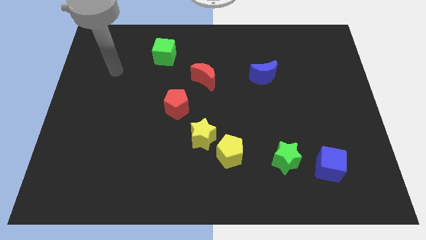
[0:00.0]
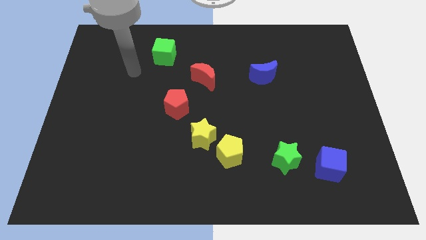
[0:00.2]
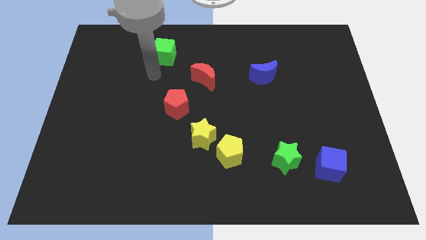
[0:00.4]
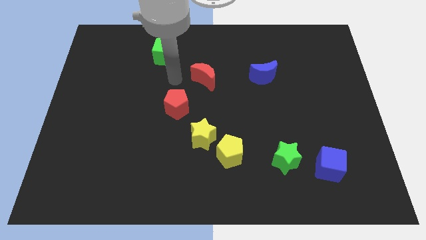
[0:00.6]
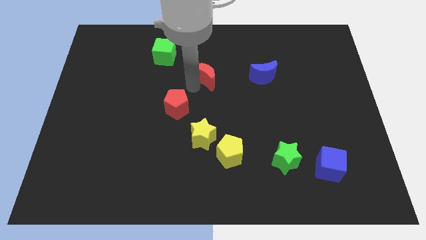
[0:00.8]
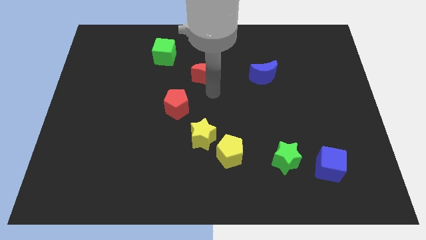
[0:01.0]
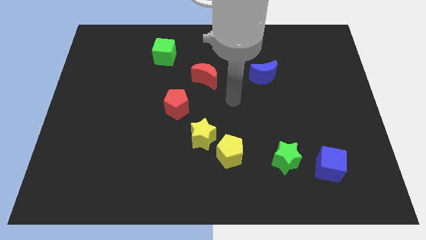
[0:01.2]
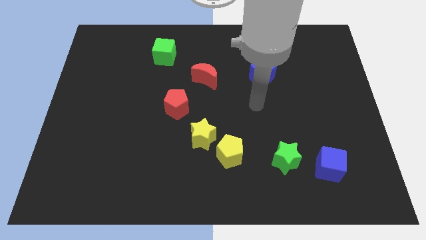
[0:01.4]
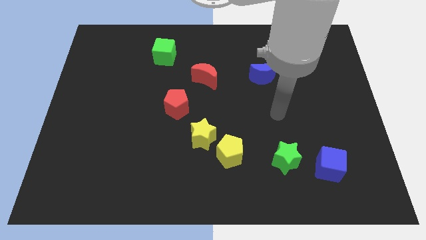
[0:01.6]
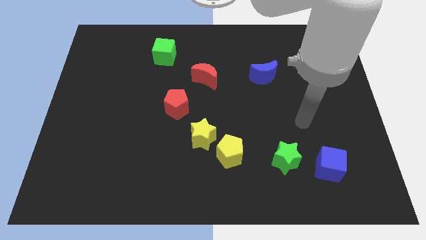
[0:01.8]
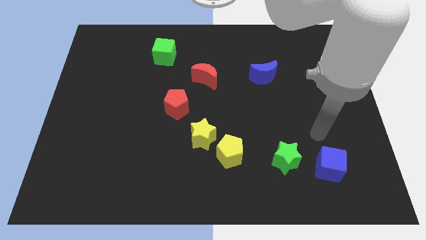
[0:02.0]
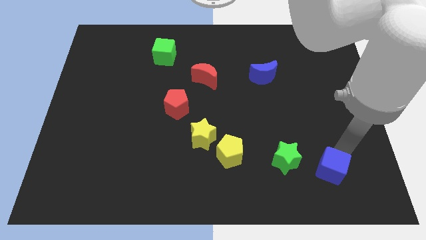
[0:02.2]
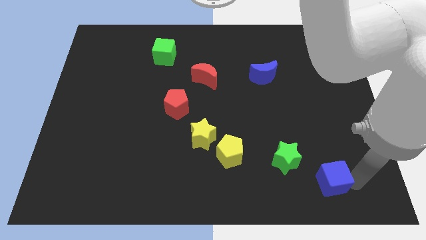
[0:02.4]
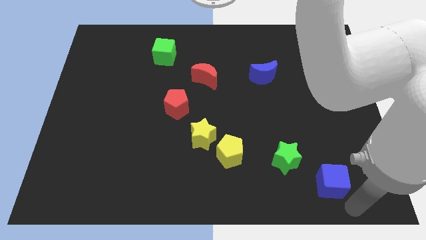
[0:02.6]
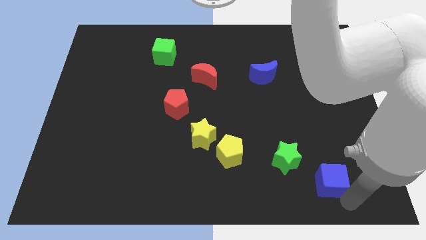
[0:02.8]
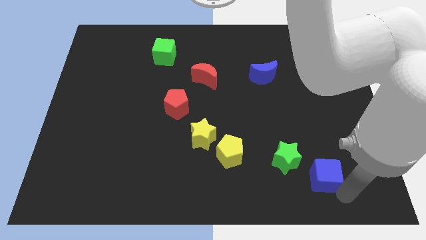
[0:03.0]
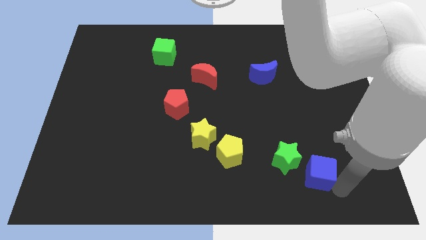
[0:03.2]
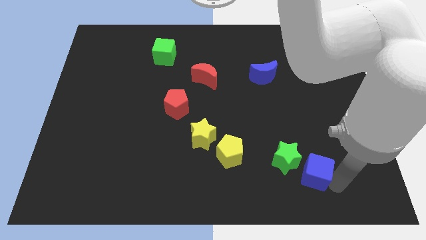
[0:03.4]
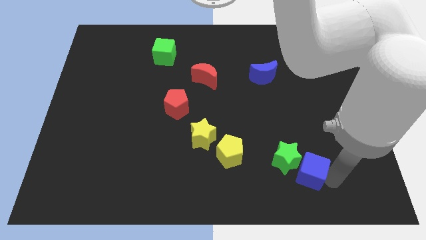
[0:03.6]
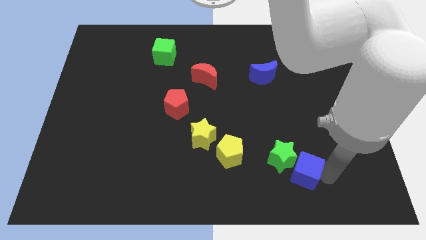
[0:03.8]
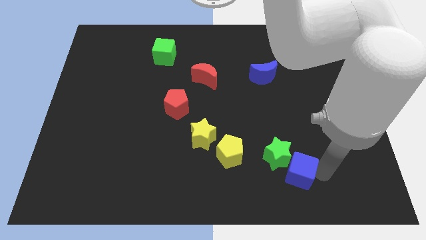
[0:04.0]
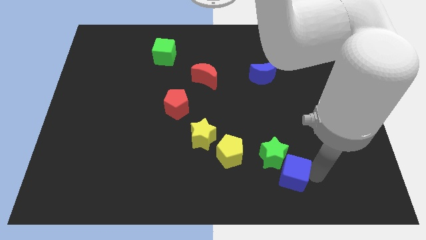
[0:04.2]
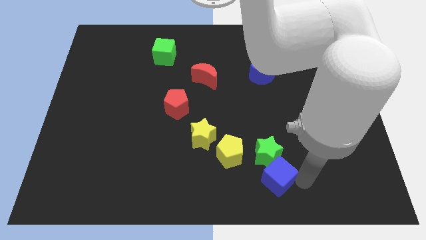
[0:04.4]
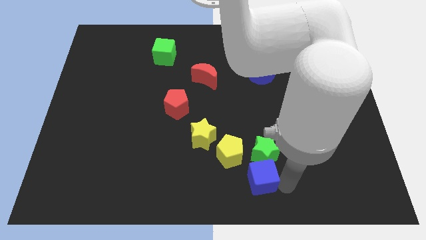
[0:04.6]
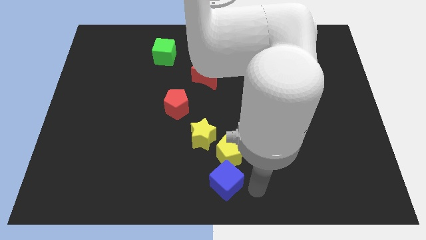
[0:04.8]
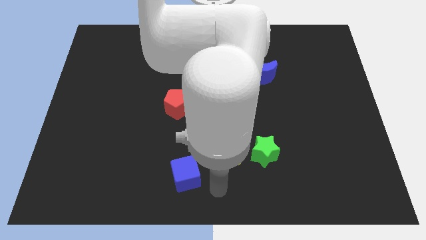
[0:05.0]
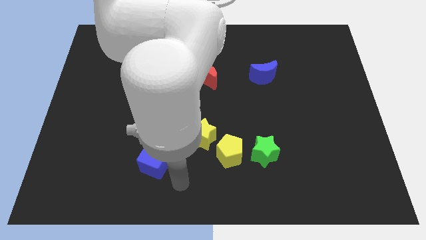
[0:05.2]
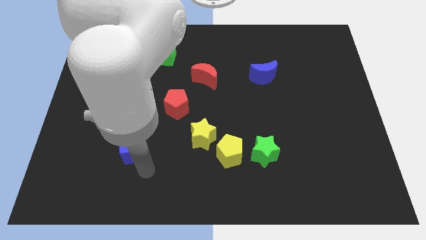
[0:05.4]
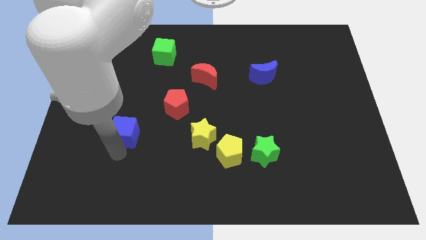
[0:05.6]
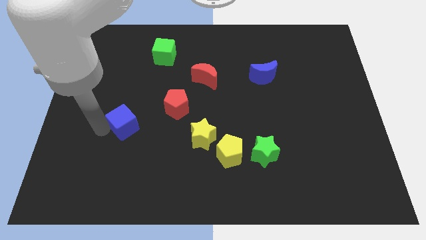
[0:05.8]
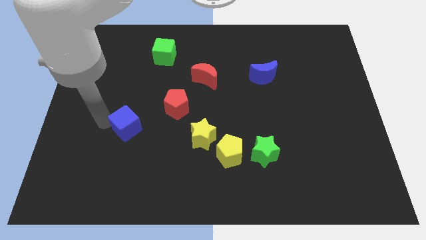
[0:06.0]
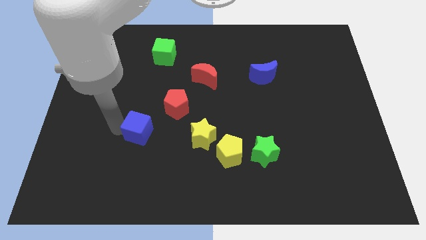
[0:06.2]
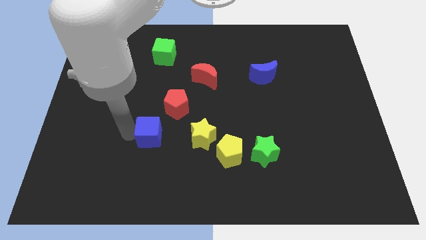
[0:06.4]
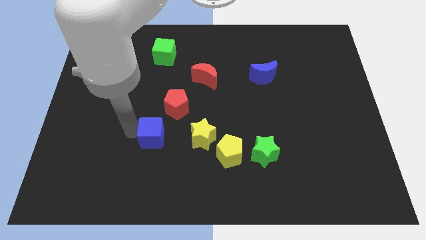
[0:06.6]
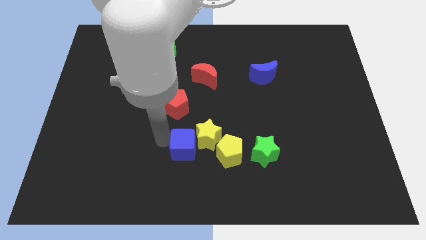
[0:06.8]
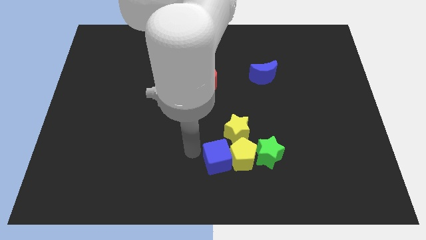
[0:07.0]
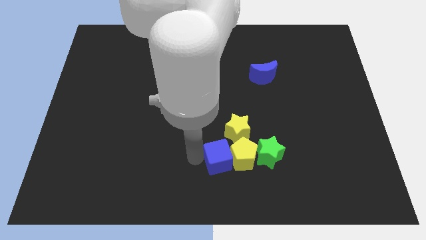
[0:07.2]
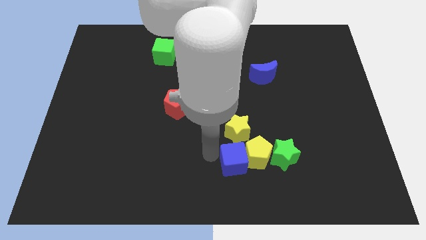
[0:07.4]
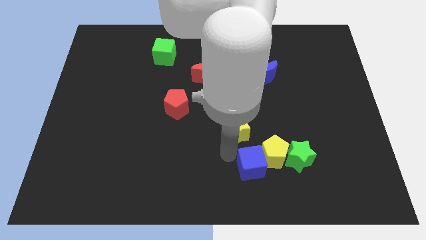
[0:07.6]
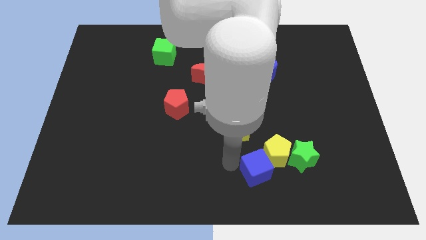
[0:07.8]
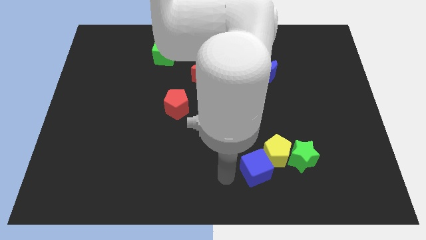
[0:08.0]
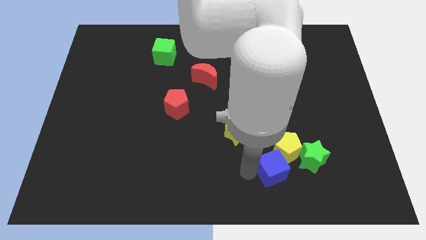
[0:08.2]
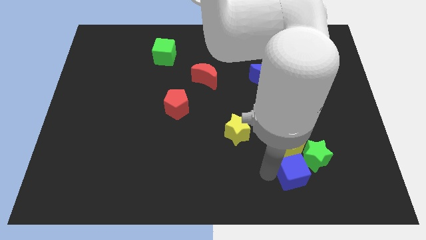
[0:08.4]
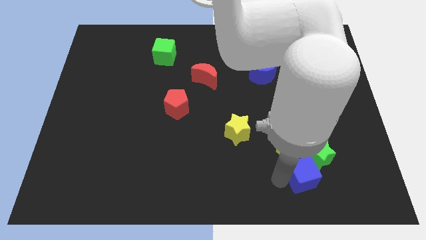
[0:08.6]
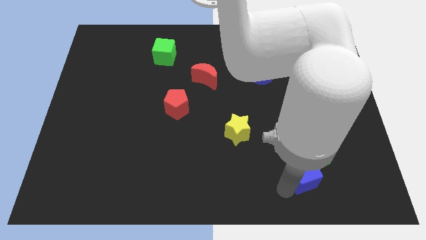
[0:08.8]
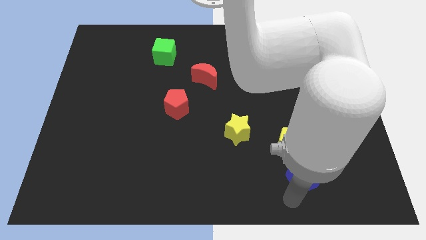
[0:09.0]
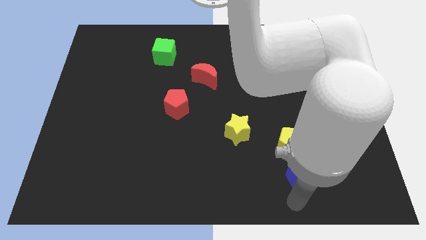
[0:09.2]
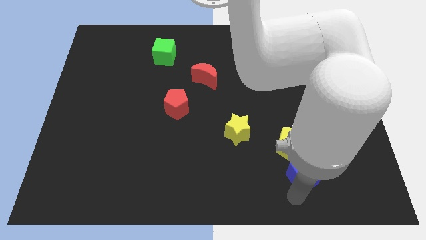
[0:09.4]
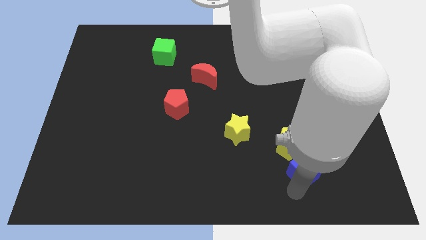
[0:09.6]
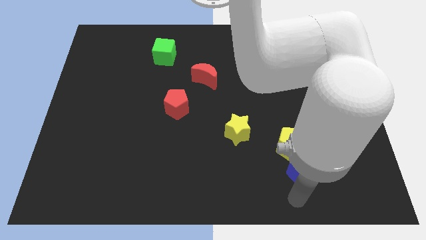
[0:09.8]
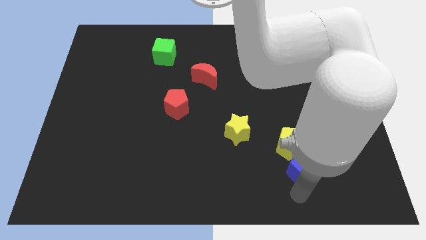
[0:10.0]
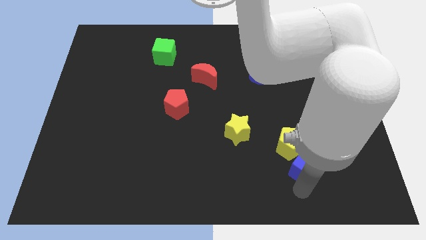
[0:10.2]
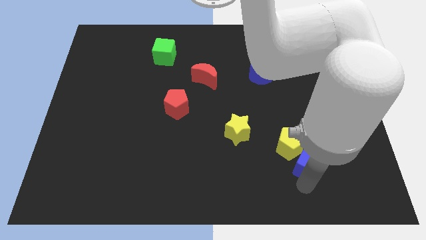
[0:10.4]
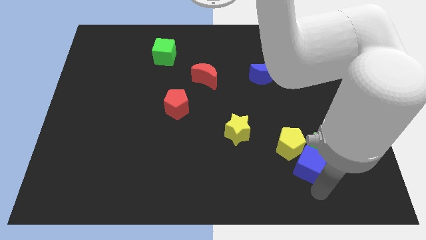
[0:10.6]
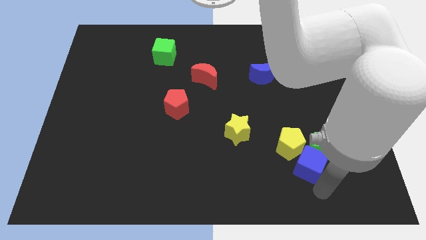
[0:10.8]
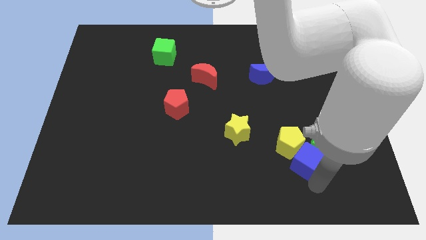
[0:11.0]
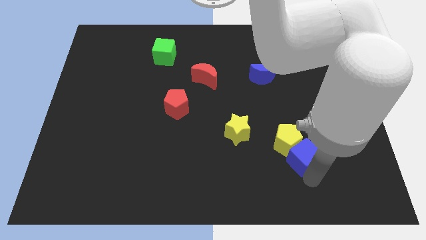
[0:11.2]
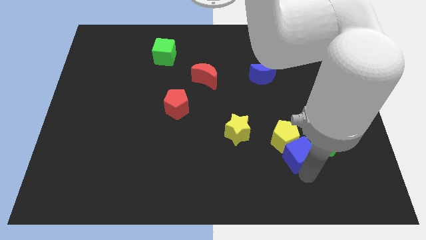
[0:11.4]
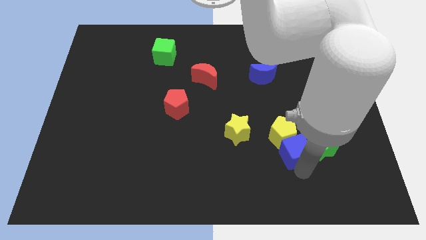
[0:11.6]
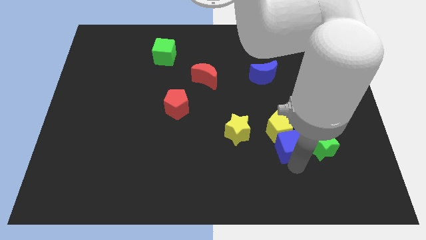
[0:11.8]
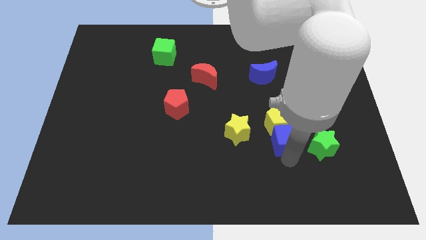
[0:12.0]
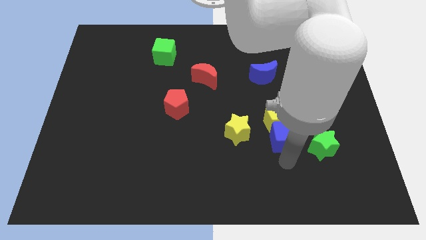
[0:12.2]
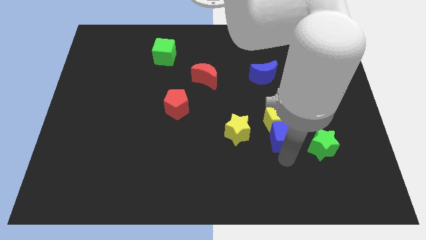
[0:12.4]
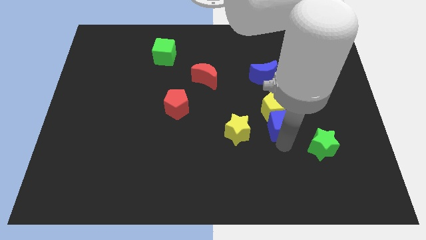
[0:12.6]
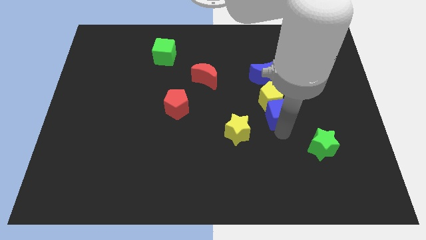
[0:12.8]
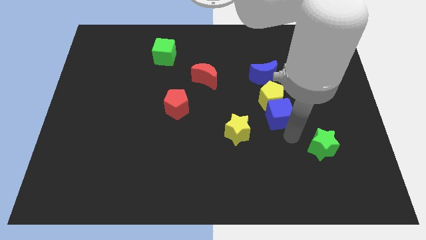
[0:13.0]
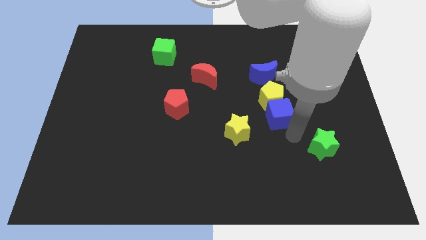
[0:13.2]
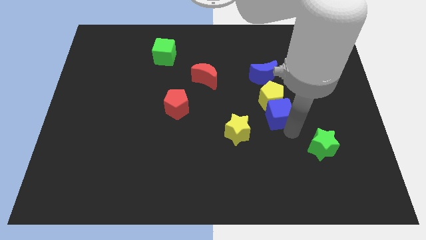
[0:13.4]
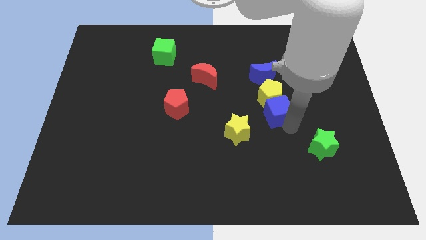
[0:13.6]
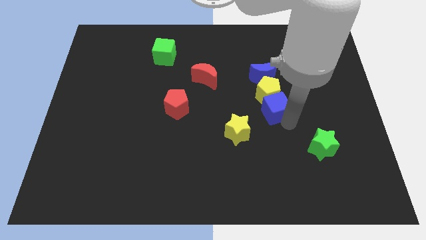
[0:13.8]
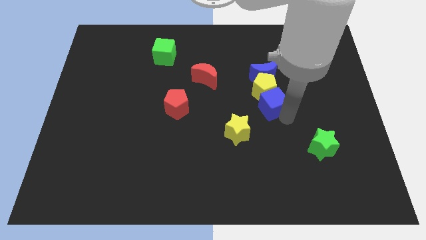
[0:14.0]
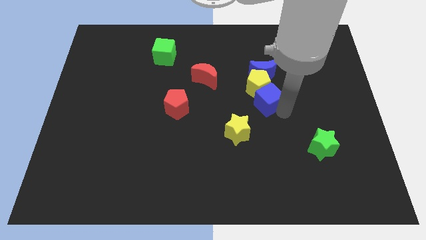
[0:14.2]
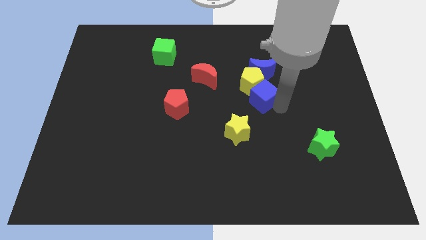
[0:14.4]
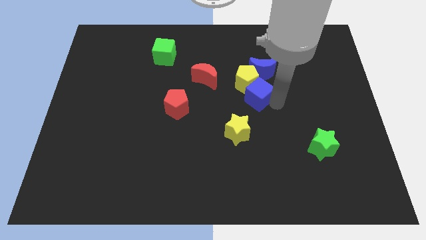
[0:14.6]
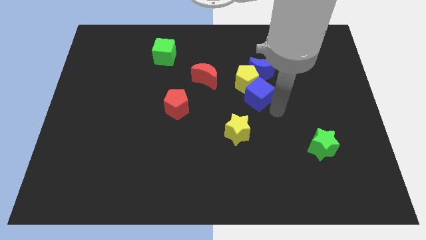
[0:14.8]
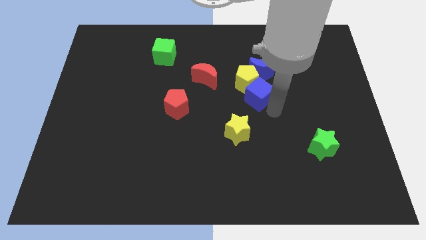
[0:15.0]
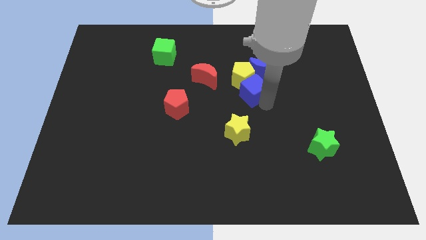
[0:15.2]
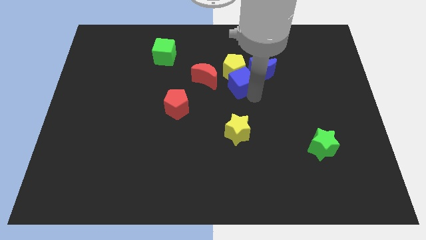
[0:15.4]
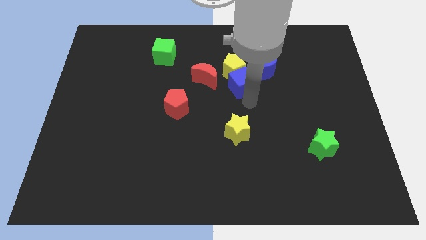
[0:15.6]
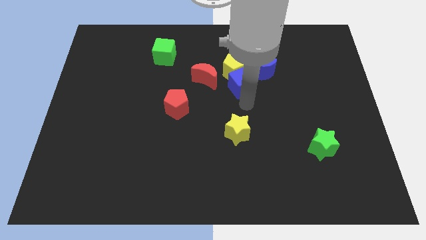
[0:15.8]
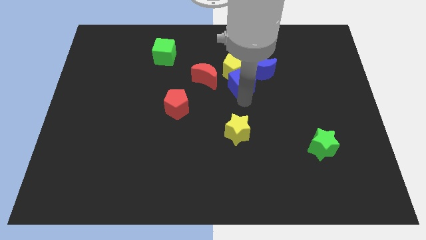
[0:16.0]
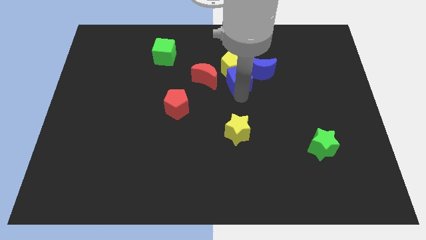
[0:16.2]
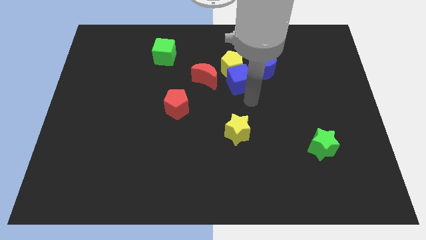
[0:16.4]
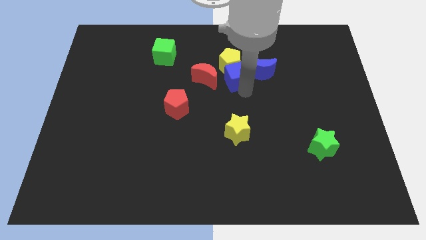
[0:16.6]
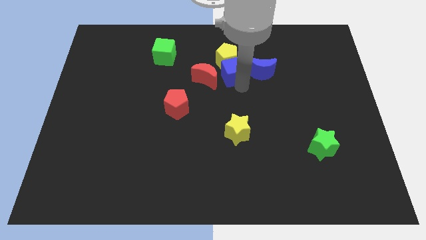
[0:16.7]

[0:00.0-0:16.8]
slide the blue cube to the top right side of the red moon
